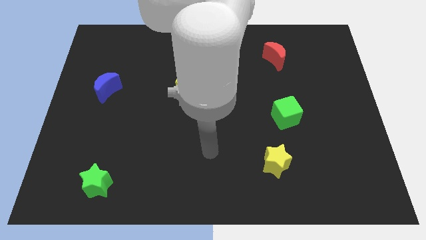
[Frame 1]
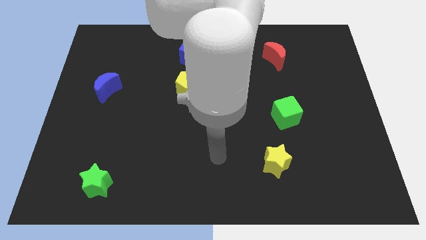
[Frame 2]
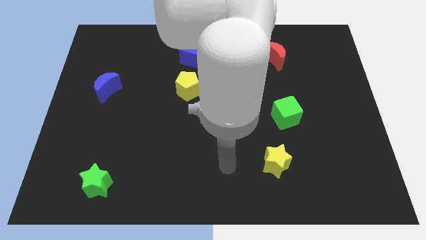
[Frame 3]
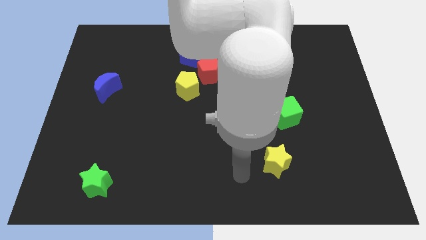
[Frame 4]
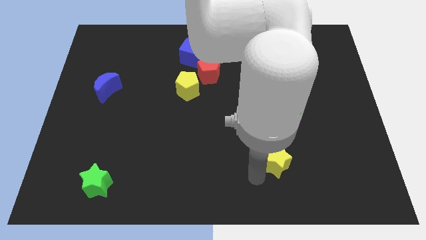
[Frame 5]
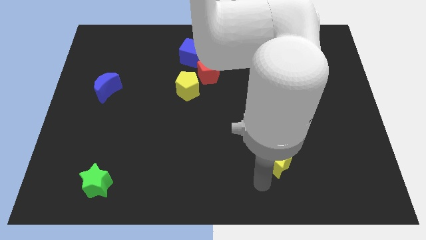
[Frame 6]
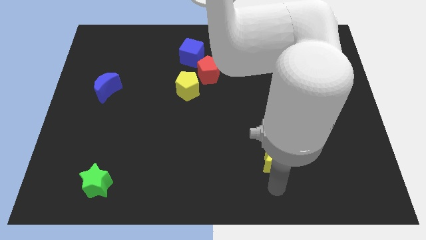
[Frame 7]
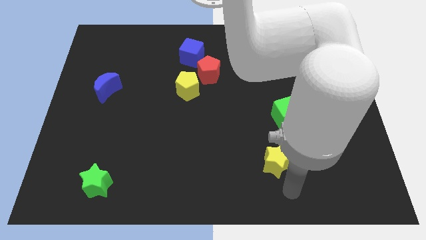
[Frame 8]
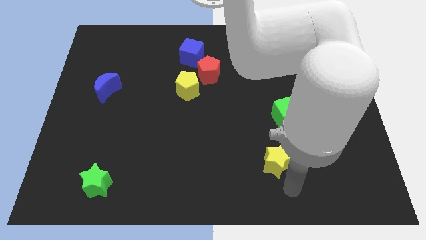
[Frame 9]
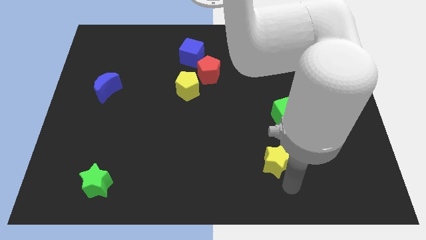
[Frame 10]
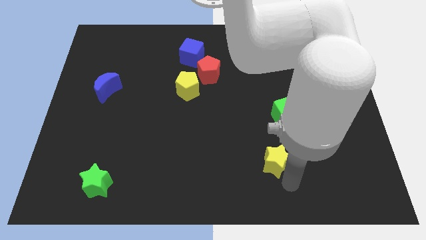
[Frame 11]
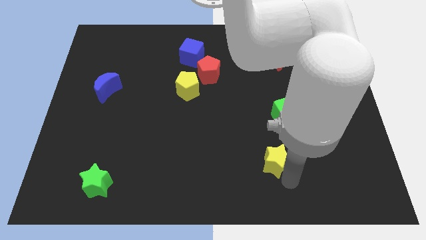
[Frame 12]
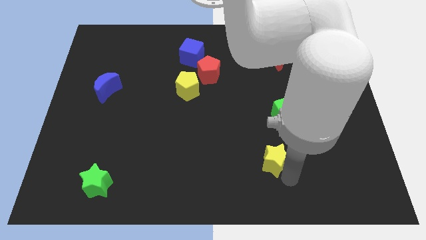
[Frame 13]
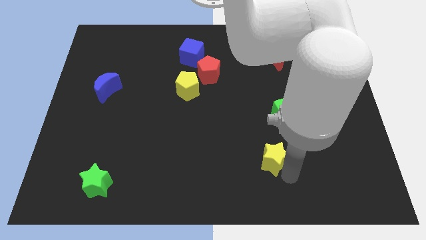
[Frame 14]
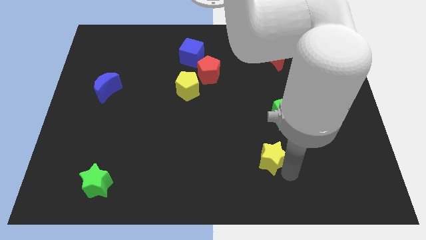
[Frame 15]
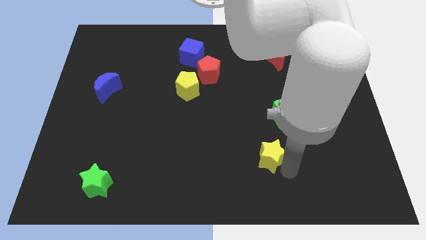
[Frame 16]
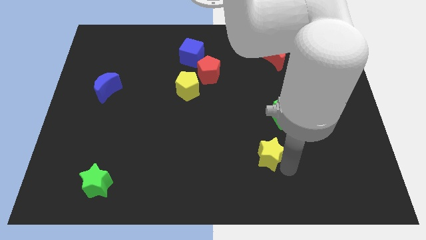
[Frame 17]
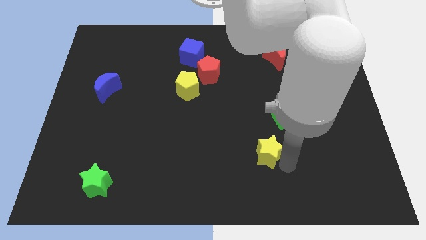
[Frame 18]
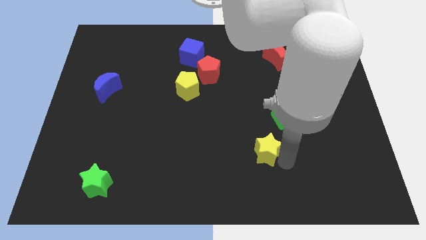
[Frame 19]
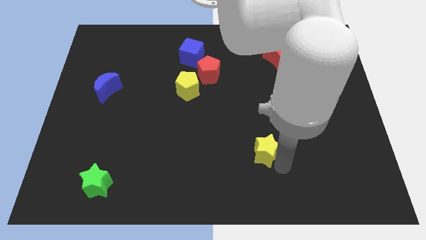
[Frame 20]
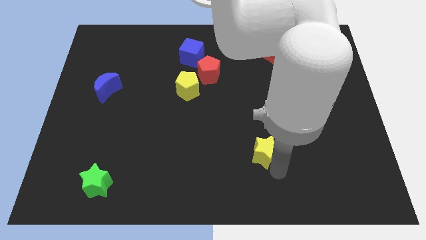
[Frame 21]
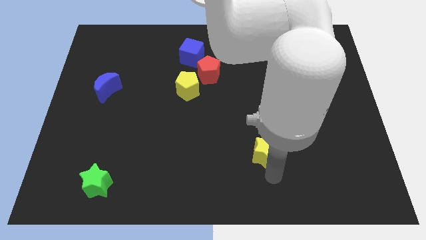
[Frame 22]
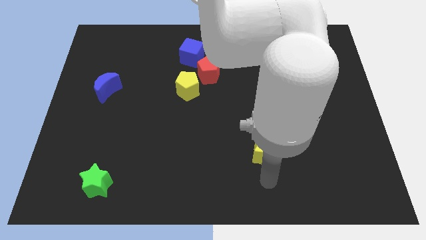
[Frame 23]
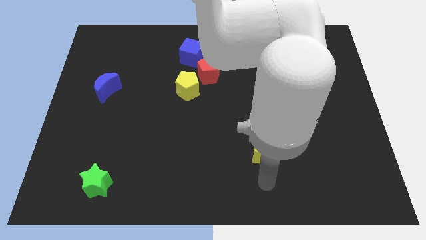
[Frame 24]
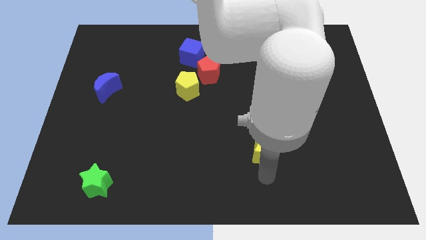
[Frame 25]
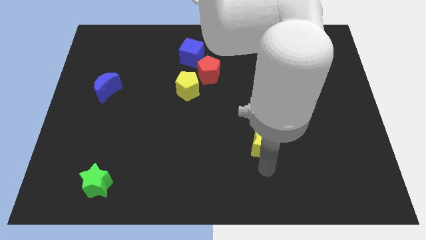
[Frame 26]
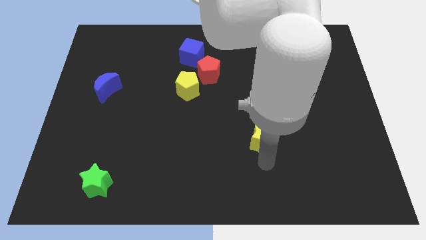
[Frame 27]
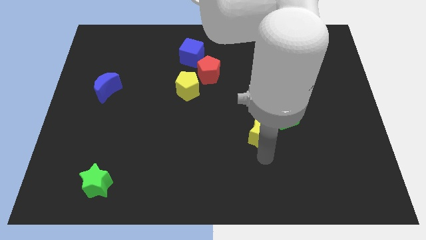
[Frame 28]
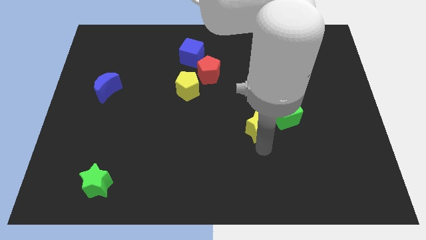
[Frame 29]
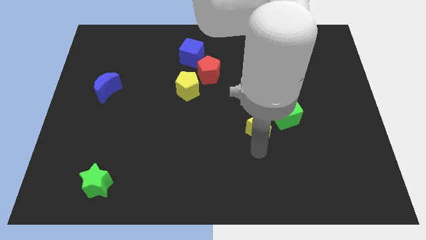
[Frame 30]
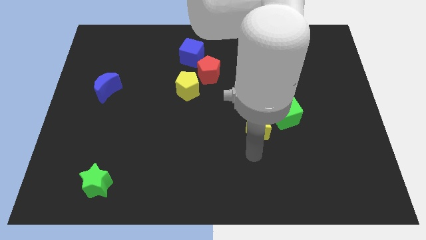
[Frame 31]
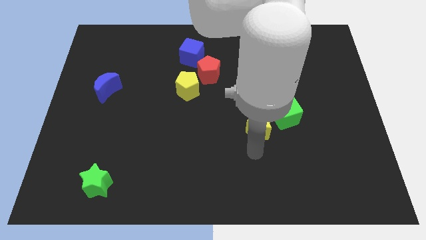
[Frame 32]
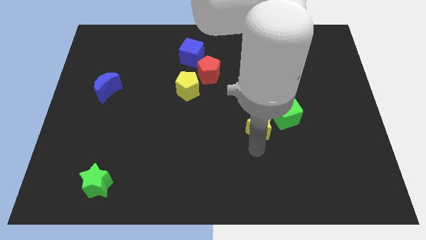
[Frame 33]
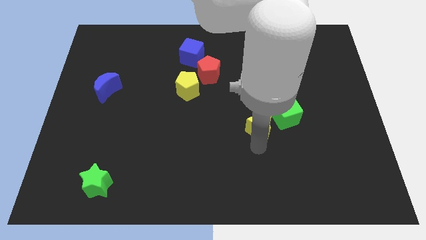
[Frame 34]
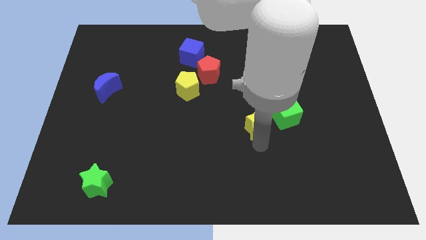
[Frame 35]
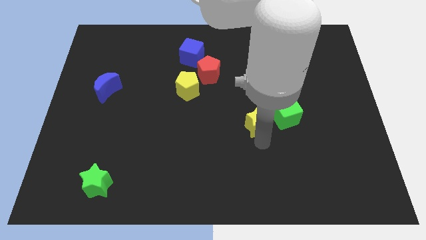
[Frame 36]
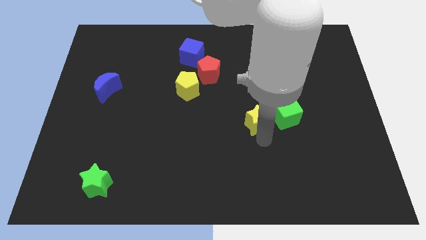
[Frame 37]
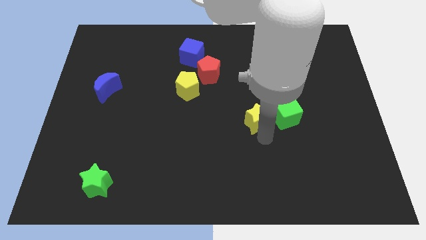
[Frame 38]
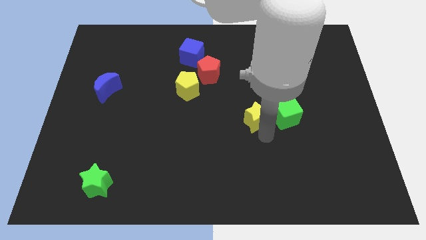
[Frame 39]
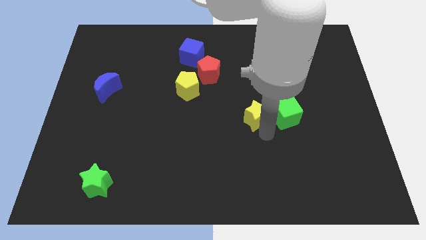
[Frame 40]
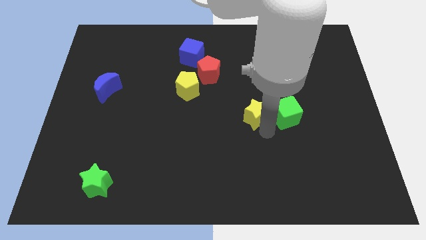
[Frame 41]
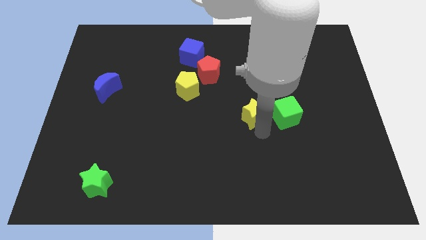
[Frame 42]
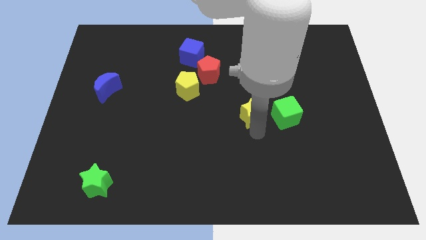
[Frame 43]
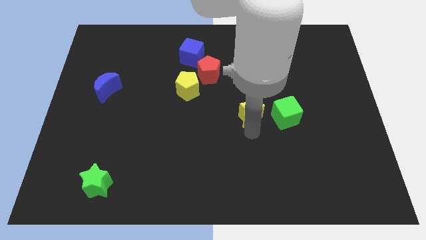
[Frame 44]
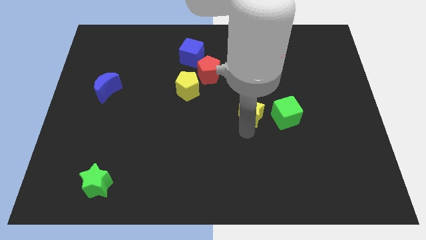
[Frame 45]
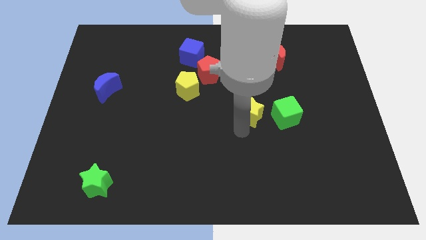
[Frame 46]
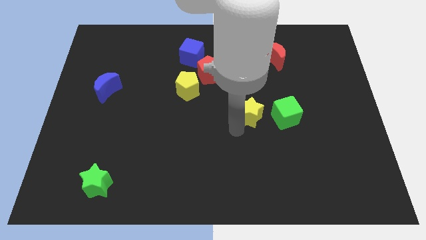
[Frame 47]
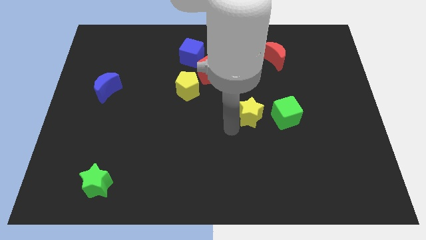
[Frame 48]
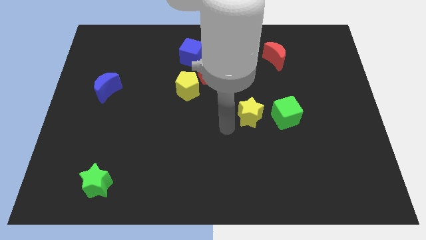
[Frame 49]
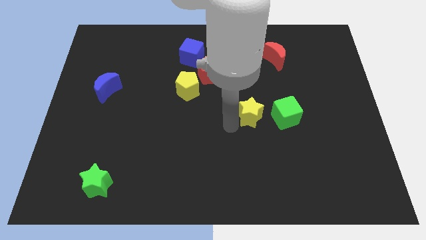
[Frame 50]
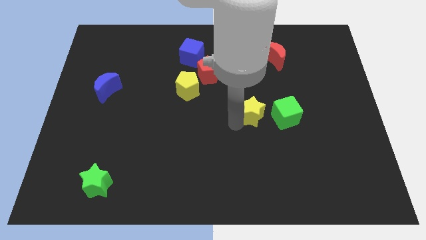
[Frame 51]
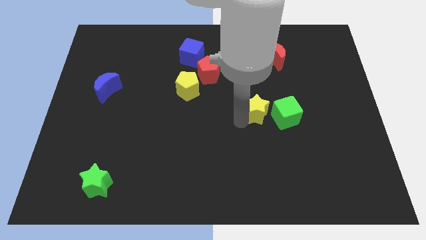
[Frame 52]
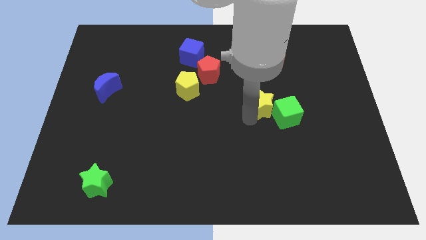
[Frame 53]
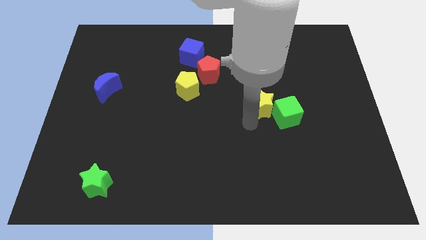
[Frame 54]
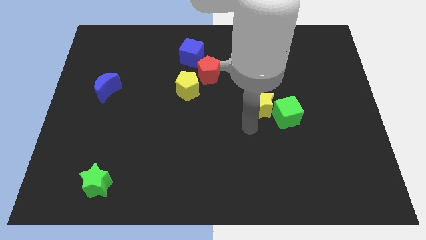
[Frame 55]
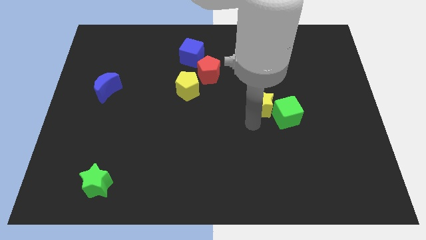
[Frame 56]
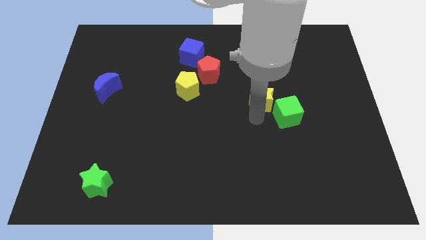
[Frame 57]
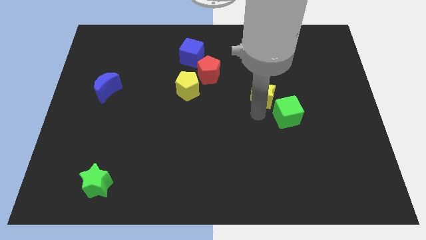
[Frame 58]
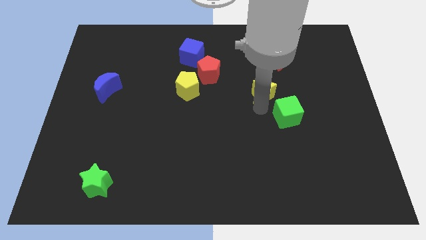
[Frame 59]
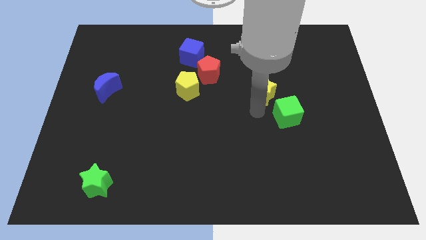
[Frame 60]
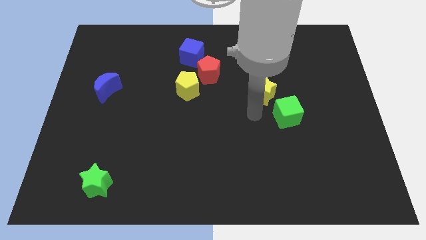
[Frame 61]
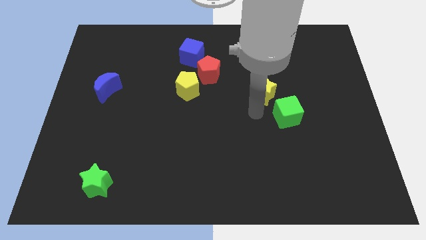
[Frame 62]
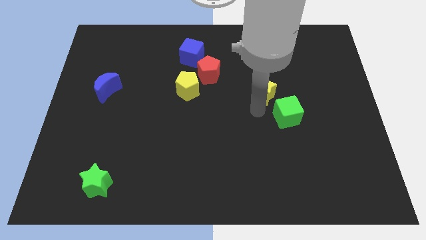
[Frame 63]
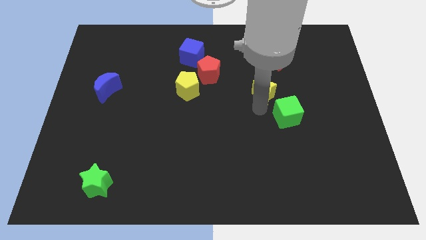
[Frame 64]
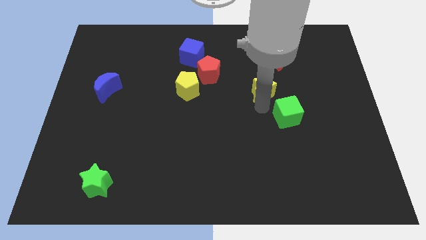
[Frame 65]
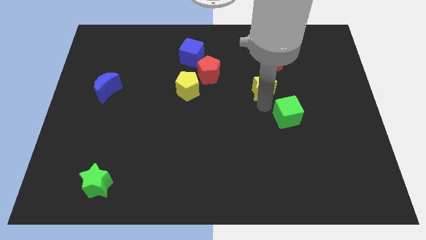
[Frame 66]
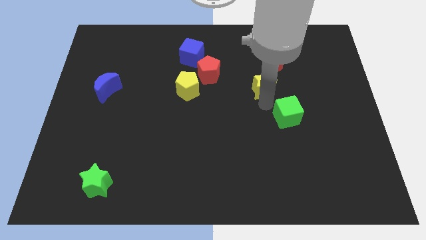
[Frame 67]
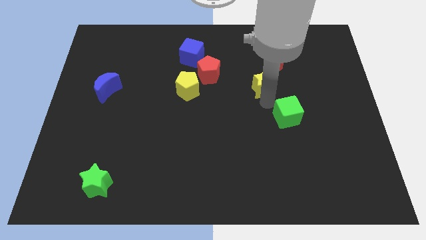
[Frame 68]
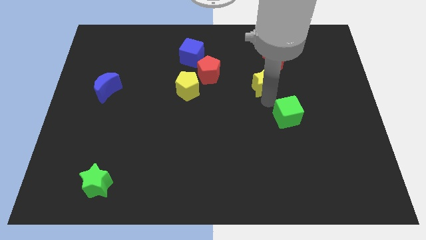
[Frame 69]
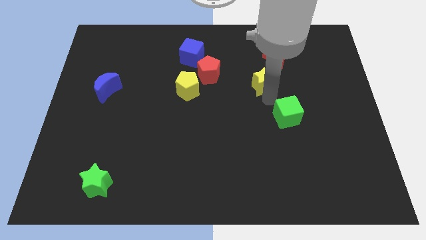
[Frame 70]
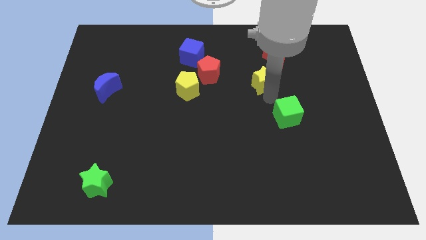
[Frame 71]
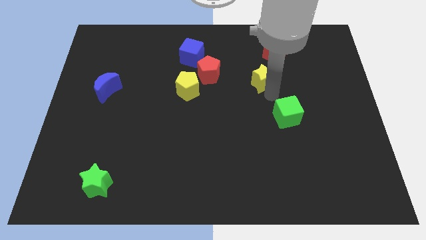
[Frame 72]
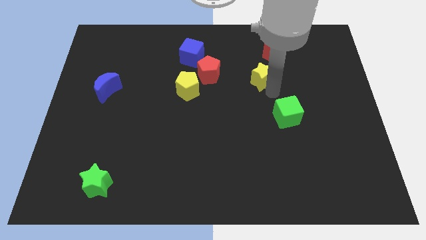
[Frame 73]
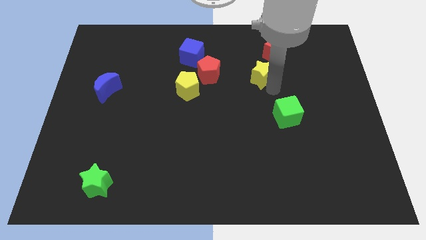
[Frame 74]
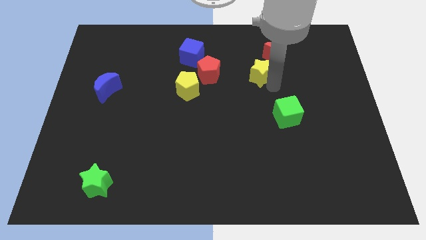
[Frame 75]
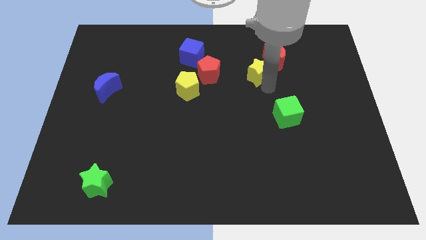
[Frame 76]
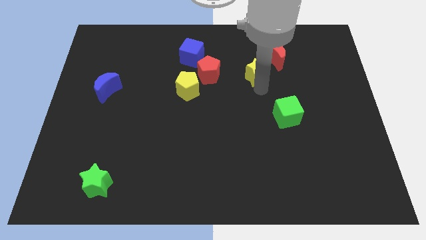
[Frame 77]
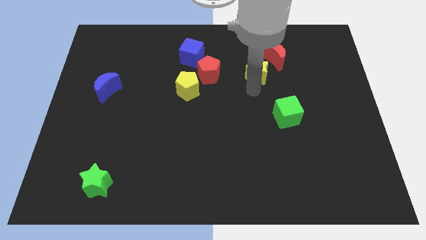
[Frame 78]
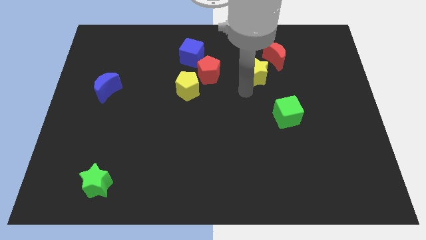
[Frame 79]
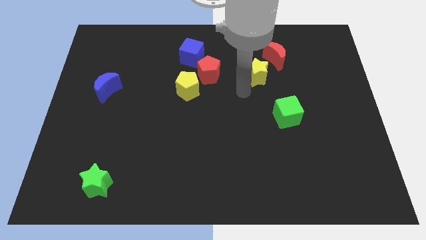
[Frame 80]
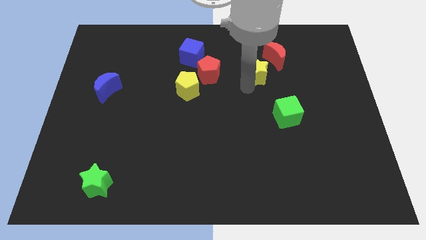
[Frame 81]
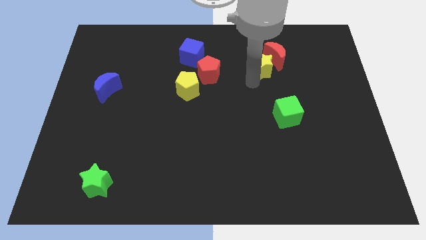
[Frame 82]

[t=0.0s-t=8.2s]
slide the yellow star towards the red moon
